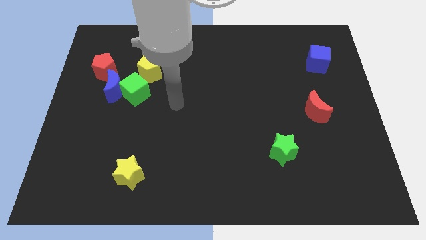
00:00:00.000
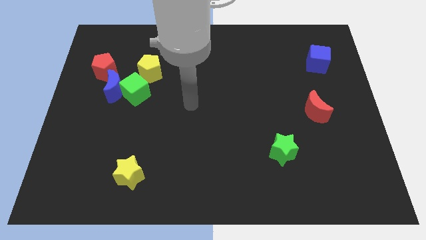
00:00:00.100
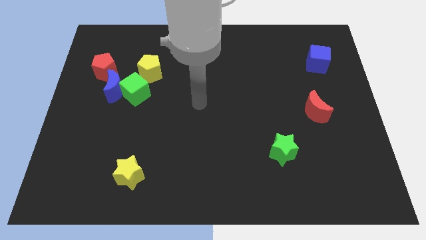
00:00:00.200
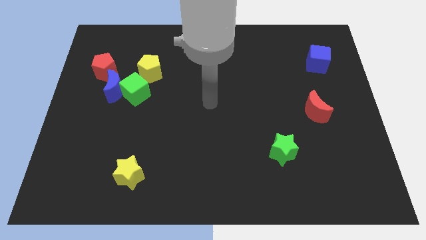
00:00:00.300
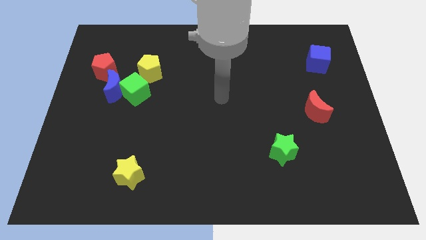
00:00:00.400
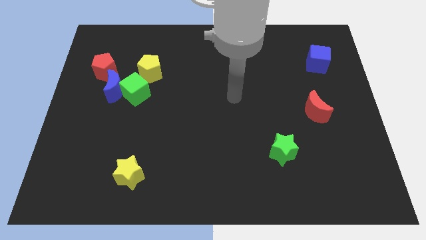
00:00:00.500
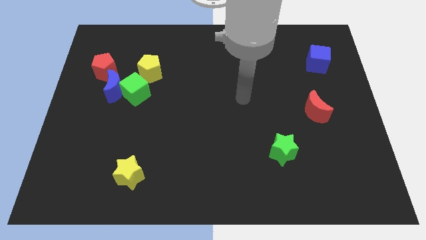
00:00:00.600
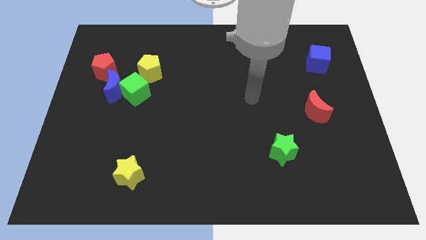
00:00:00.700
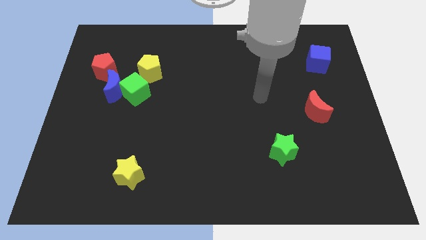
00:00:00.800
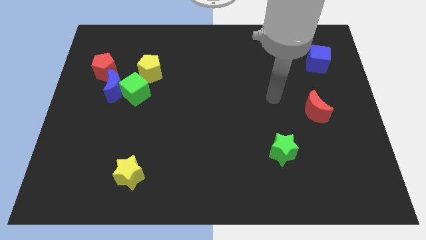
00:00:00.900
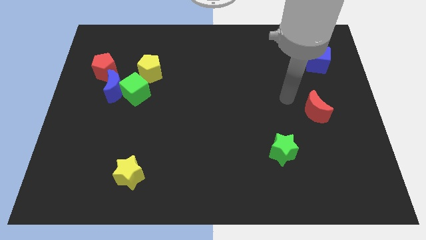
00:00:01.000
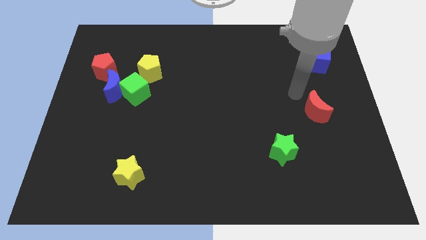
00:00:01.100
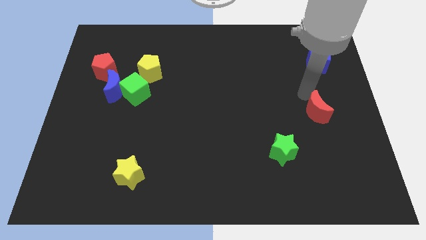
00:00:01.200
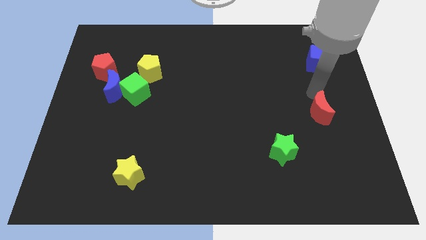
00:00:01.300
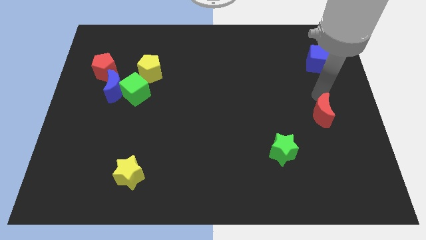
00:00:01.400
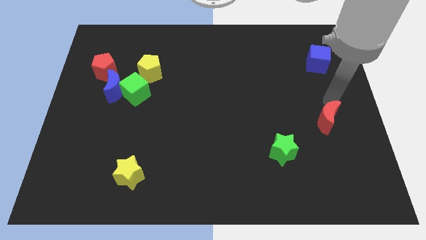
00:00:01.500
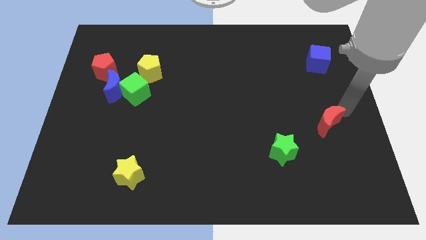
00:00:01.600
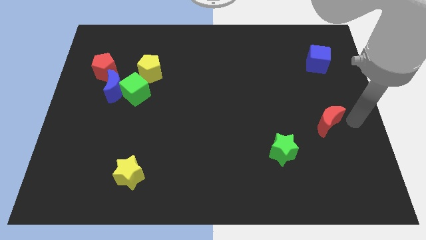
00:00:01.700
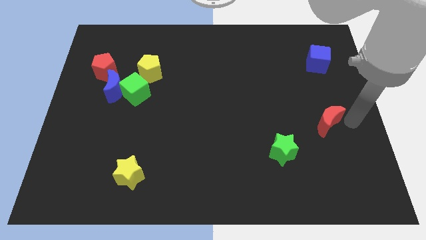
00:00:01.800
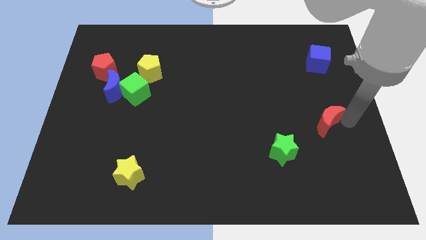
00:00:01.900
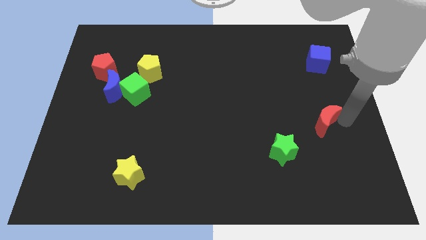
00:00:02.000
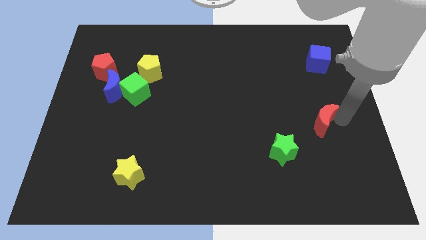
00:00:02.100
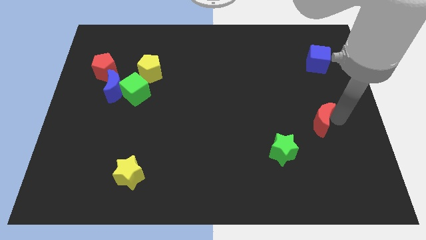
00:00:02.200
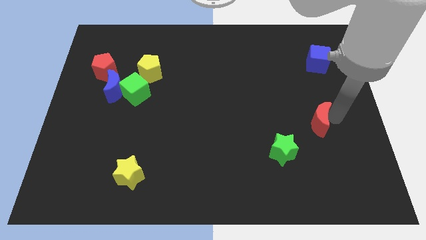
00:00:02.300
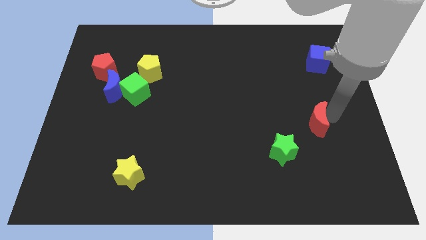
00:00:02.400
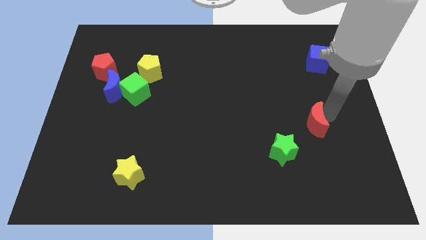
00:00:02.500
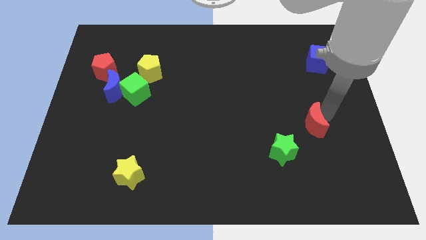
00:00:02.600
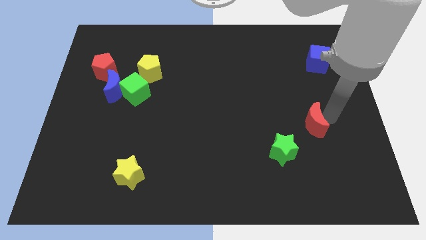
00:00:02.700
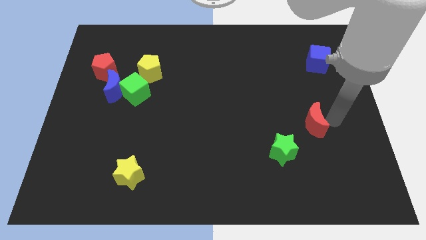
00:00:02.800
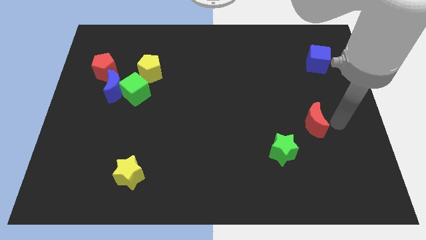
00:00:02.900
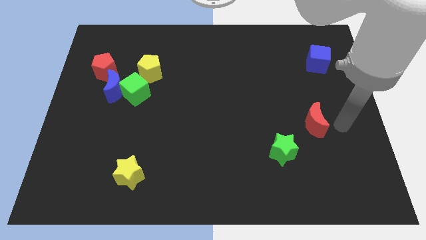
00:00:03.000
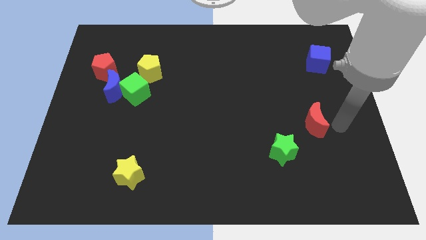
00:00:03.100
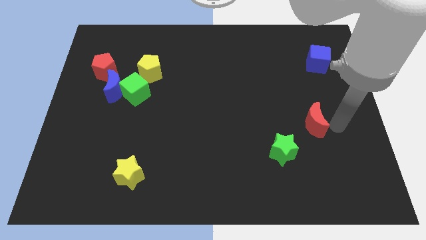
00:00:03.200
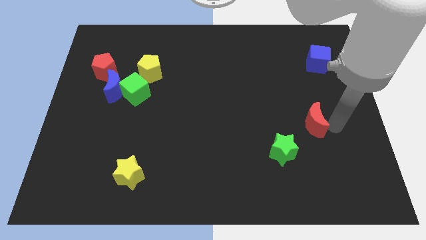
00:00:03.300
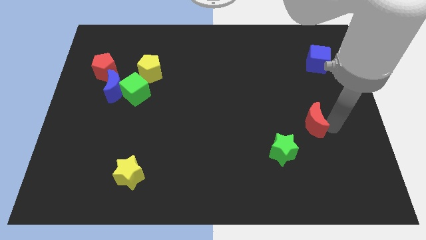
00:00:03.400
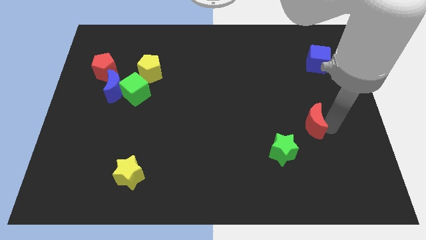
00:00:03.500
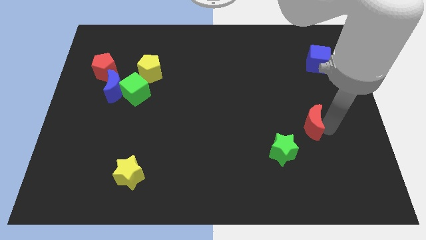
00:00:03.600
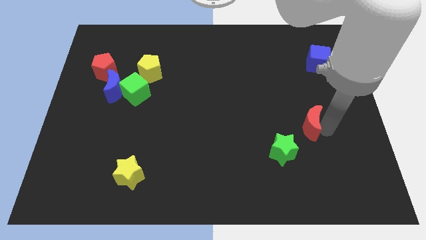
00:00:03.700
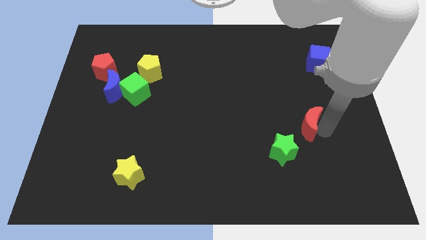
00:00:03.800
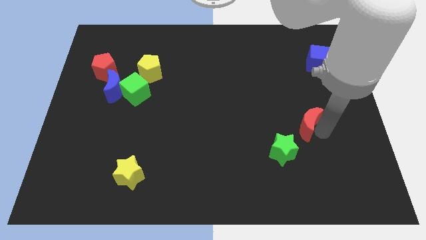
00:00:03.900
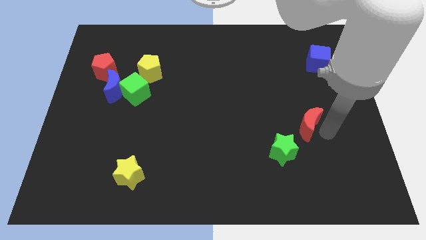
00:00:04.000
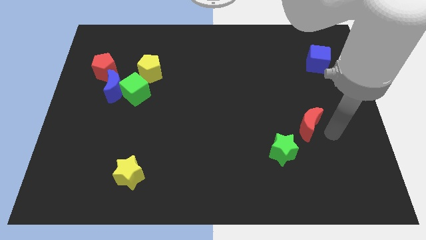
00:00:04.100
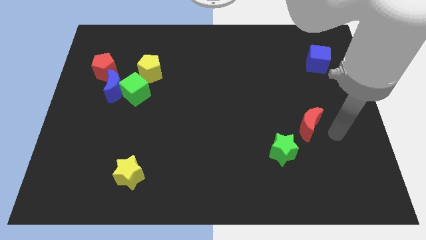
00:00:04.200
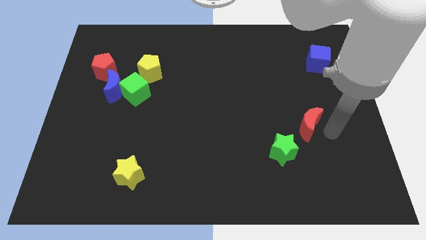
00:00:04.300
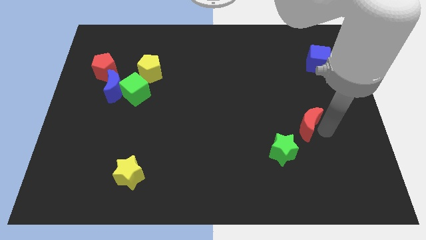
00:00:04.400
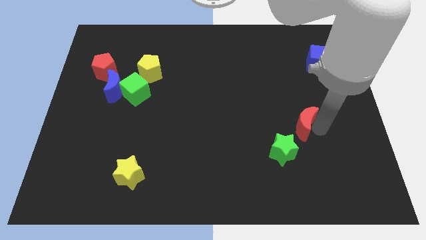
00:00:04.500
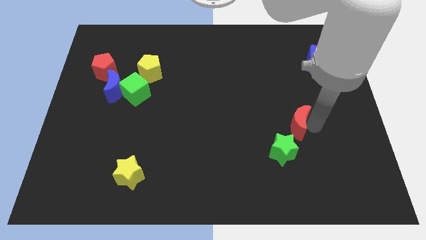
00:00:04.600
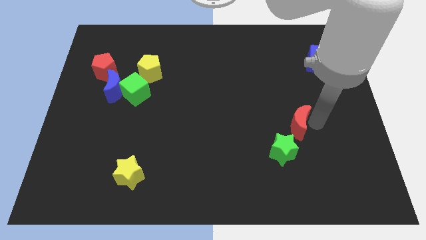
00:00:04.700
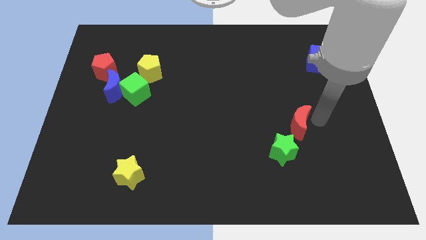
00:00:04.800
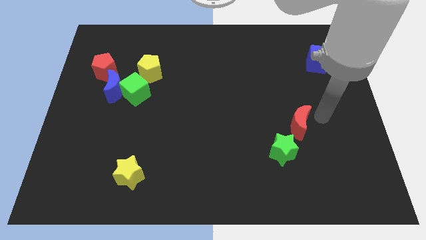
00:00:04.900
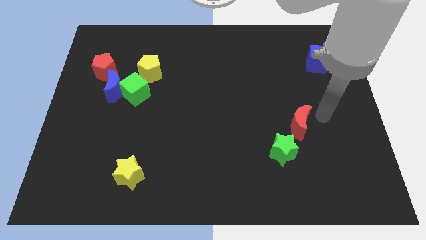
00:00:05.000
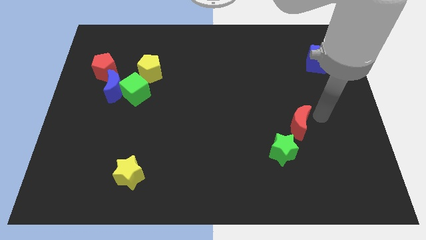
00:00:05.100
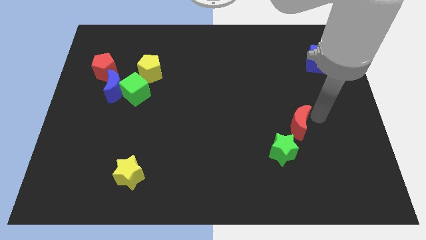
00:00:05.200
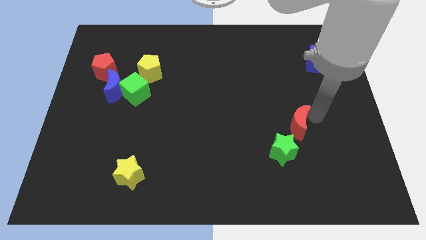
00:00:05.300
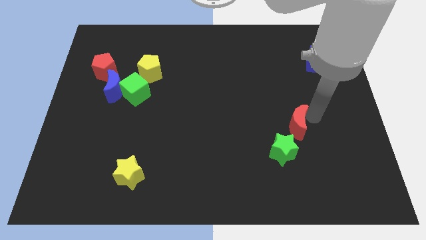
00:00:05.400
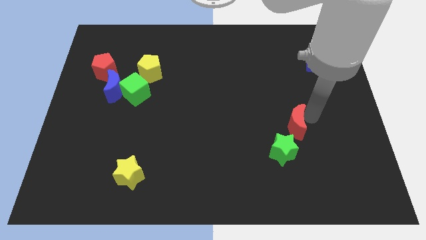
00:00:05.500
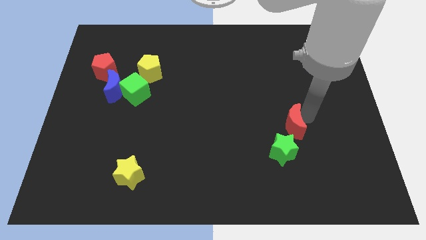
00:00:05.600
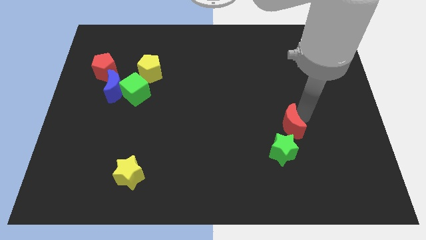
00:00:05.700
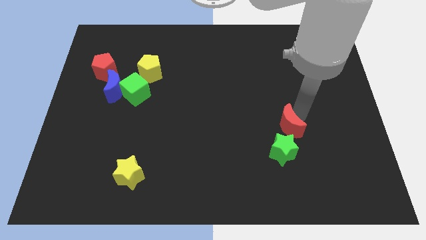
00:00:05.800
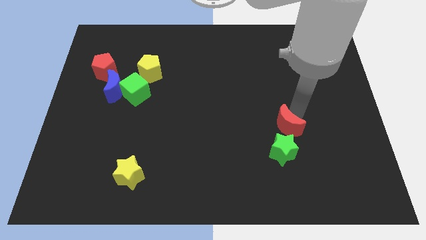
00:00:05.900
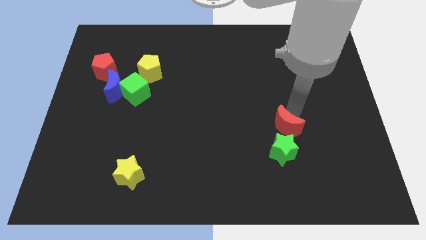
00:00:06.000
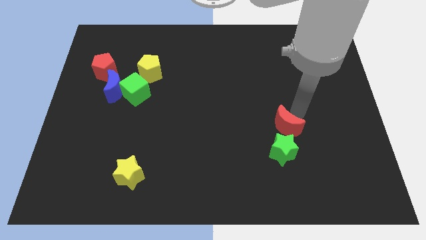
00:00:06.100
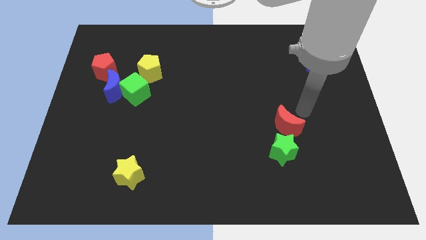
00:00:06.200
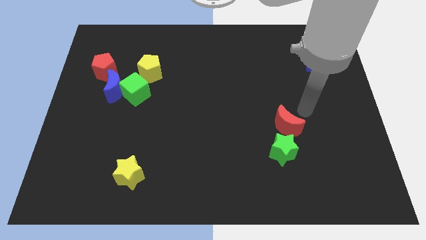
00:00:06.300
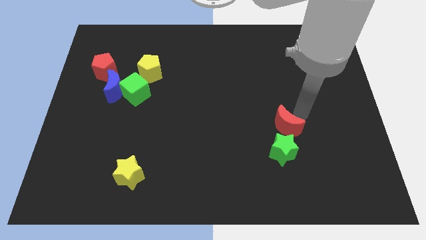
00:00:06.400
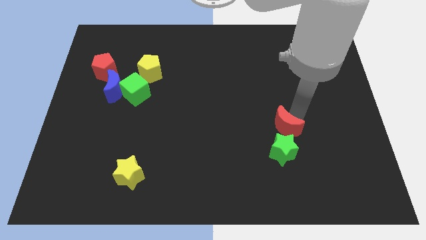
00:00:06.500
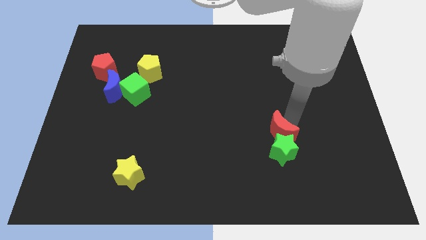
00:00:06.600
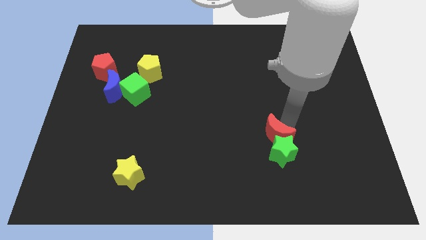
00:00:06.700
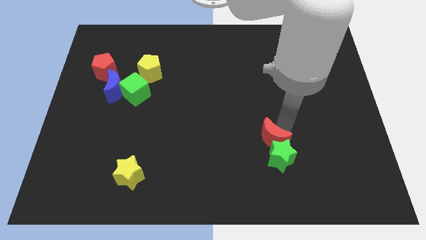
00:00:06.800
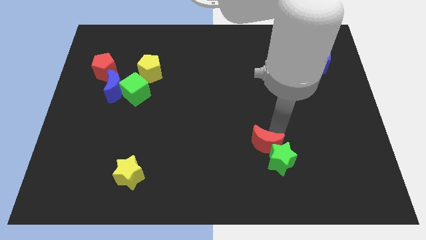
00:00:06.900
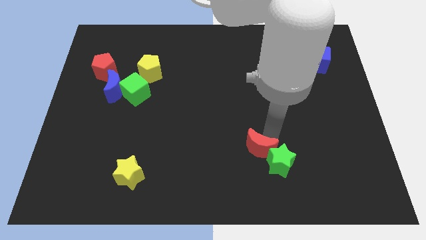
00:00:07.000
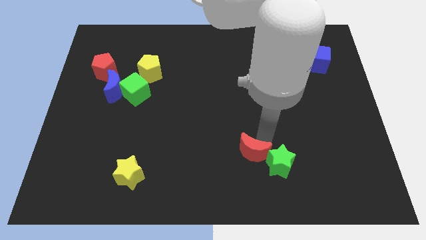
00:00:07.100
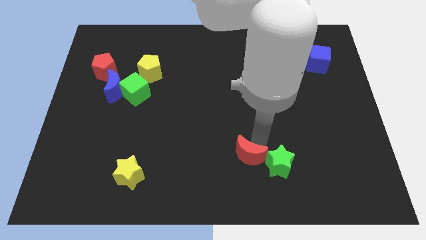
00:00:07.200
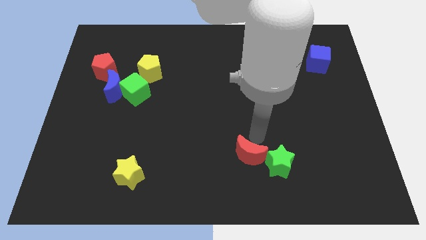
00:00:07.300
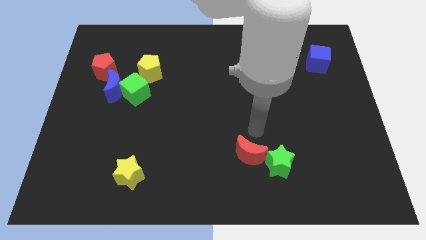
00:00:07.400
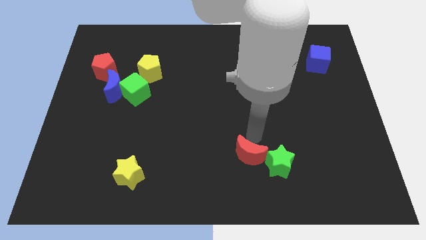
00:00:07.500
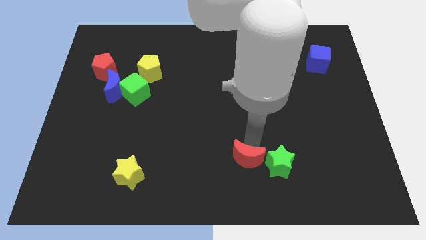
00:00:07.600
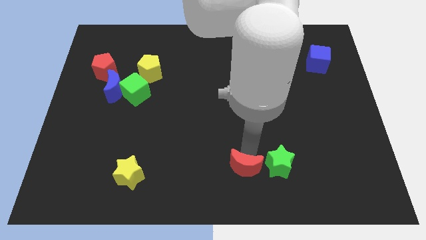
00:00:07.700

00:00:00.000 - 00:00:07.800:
put the red moon to the bottom side
